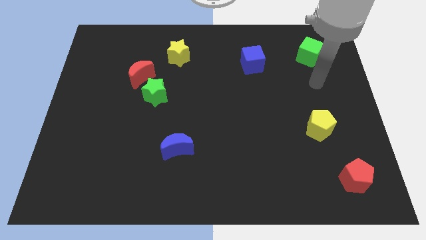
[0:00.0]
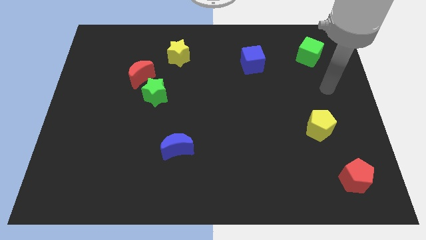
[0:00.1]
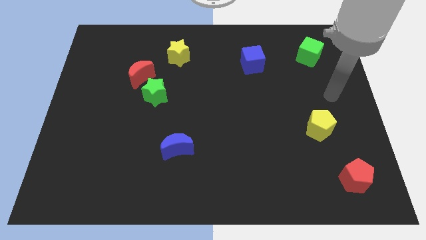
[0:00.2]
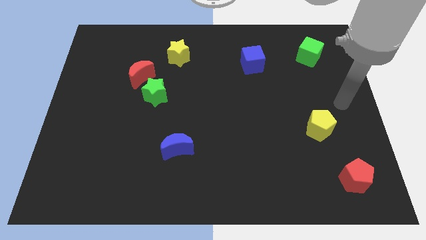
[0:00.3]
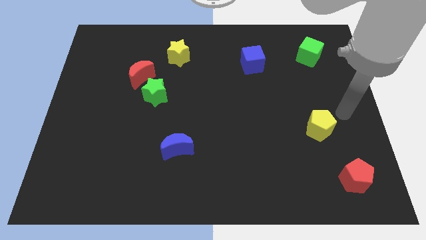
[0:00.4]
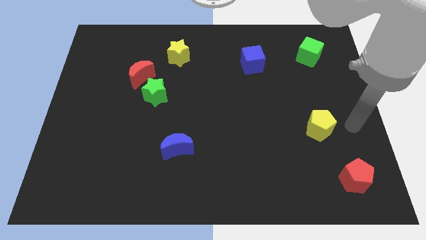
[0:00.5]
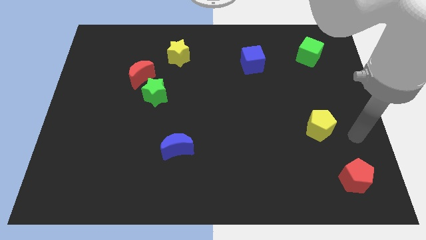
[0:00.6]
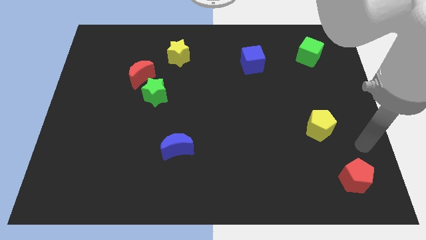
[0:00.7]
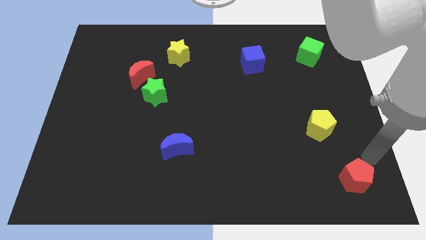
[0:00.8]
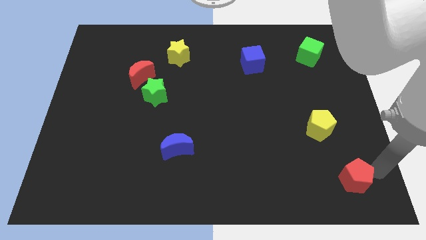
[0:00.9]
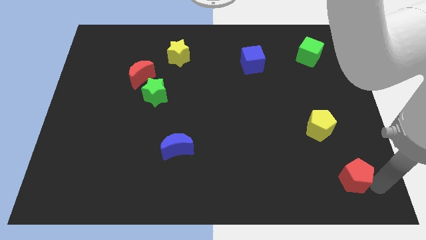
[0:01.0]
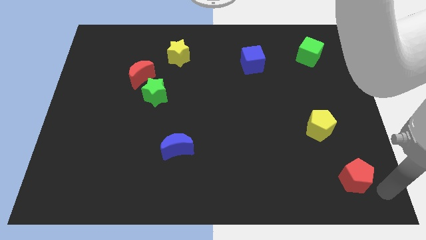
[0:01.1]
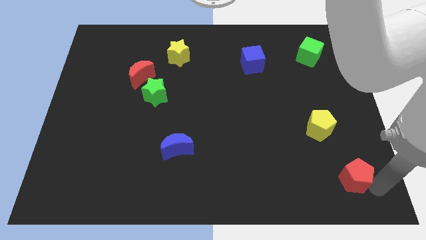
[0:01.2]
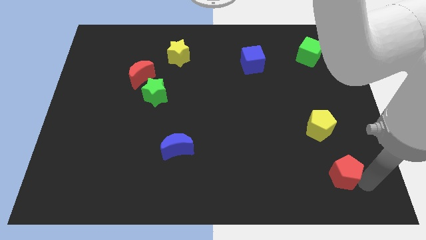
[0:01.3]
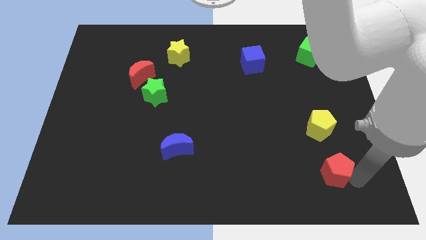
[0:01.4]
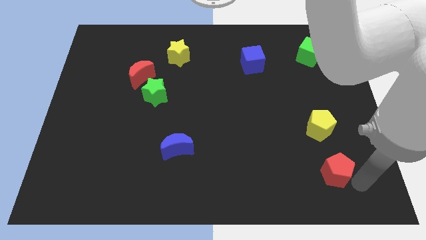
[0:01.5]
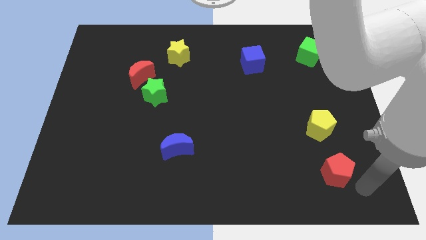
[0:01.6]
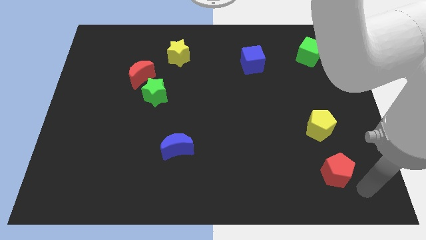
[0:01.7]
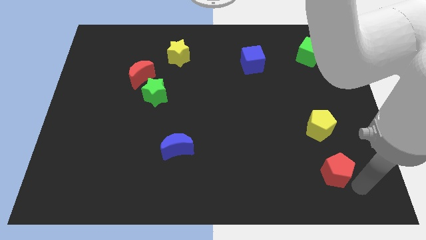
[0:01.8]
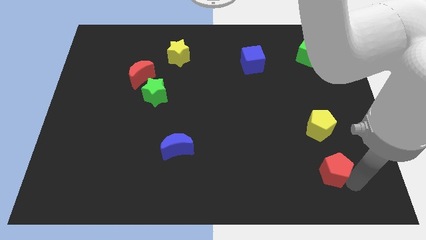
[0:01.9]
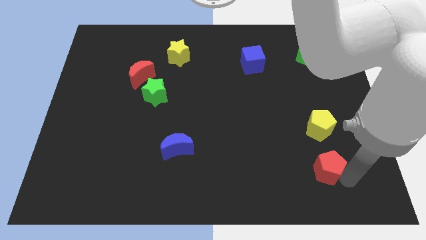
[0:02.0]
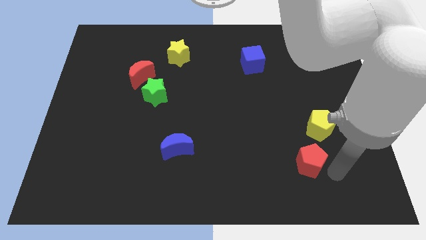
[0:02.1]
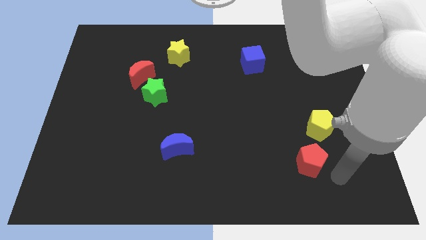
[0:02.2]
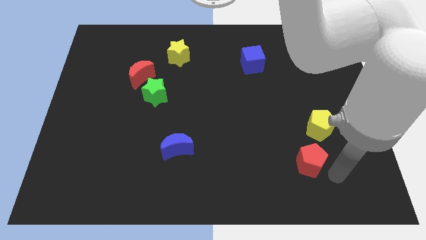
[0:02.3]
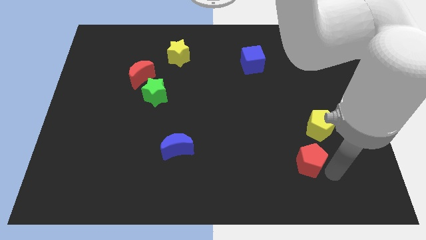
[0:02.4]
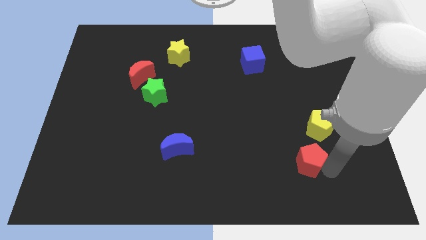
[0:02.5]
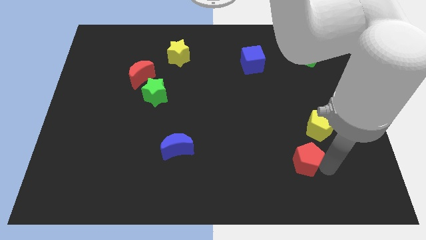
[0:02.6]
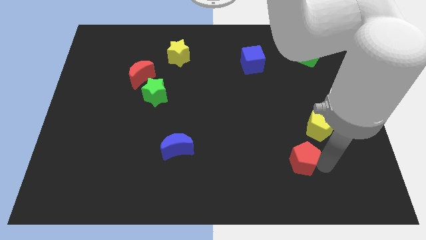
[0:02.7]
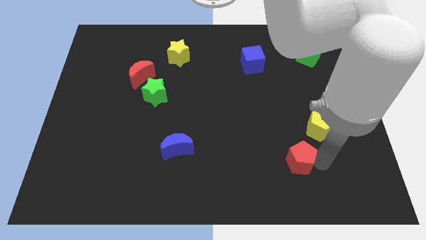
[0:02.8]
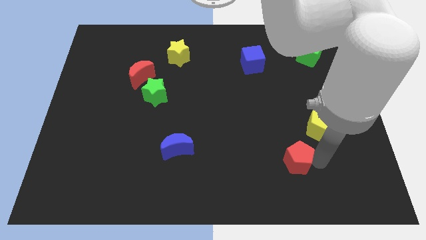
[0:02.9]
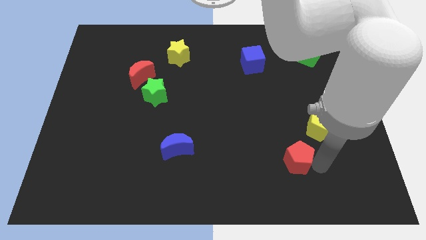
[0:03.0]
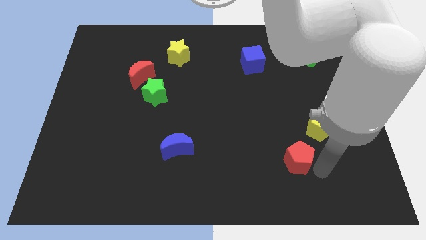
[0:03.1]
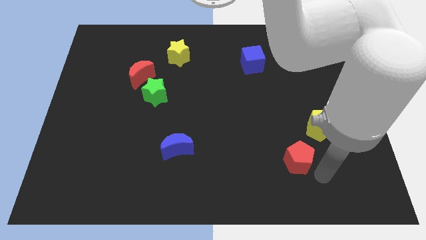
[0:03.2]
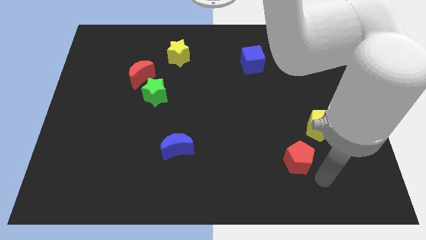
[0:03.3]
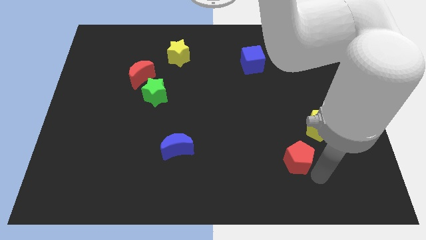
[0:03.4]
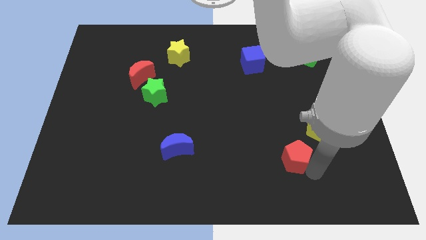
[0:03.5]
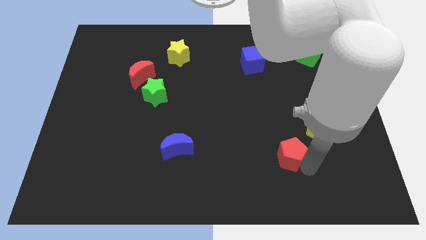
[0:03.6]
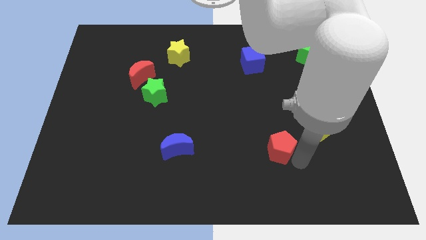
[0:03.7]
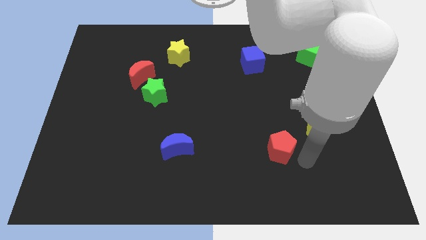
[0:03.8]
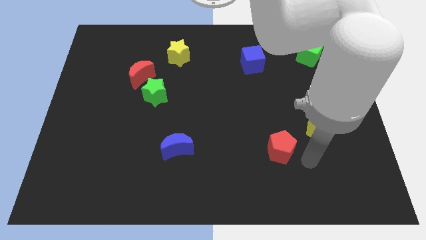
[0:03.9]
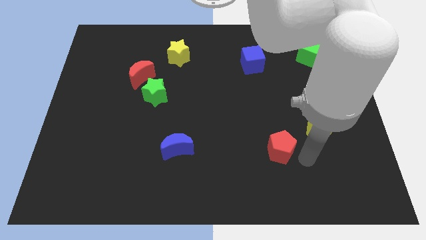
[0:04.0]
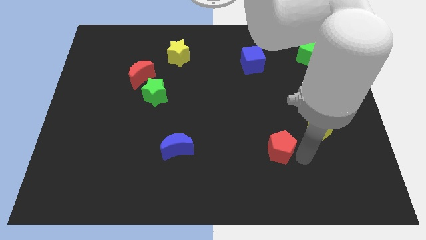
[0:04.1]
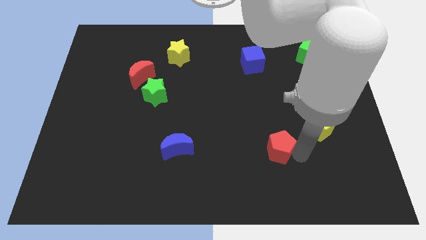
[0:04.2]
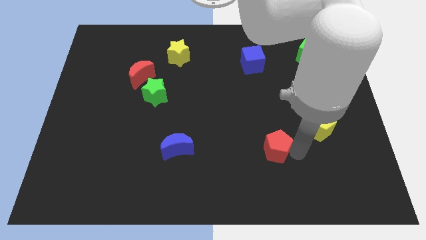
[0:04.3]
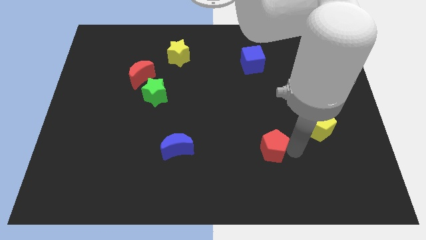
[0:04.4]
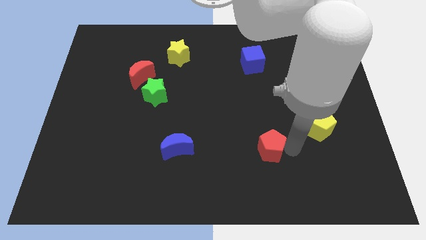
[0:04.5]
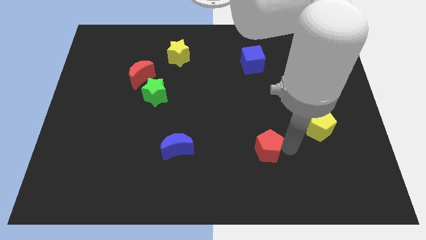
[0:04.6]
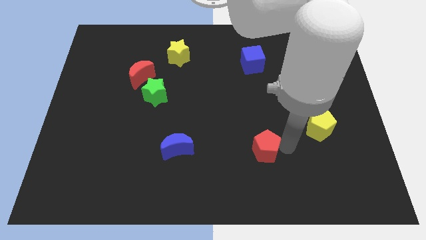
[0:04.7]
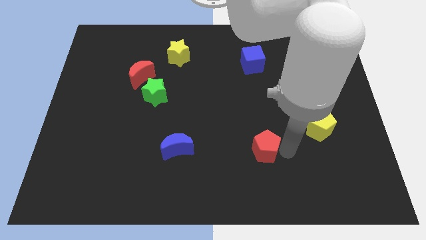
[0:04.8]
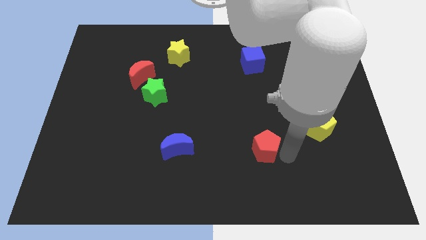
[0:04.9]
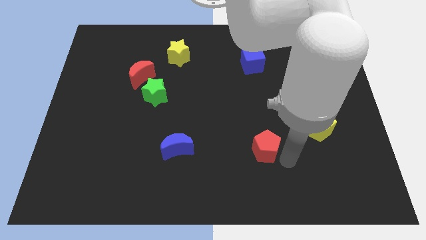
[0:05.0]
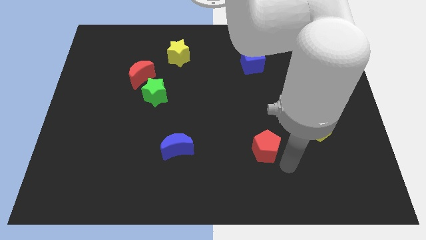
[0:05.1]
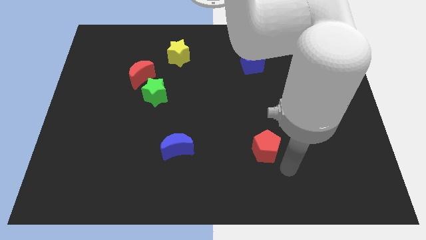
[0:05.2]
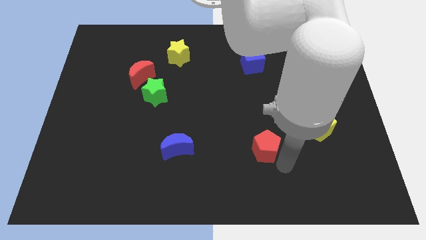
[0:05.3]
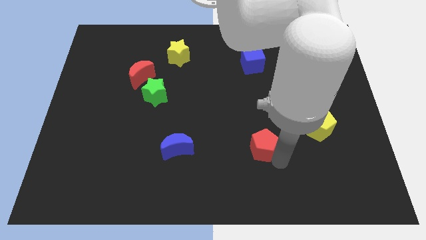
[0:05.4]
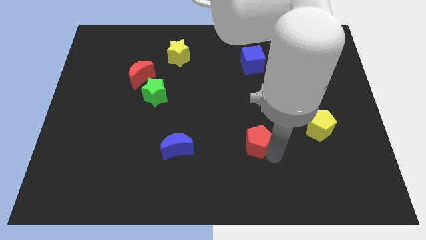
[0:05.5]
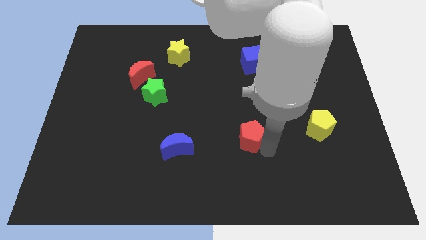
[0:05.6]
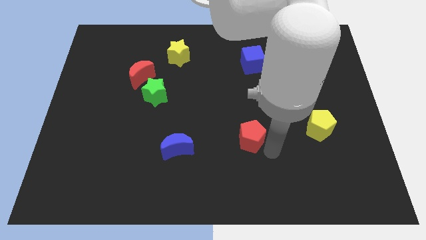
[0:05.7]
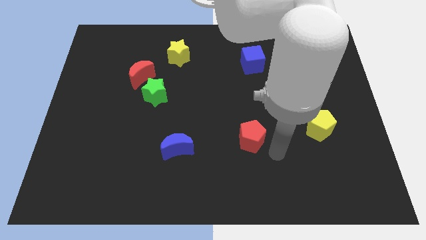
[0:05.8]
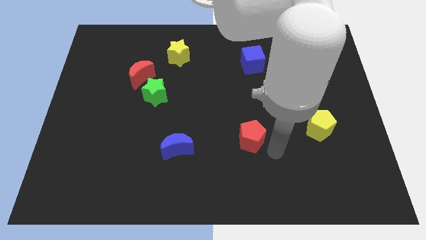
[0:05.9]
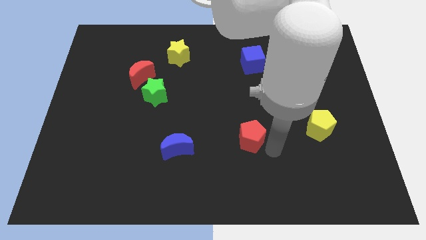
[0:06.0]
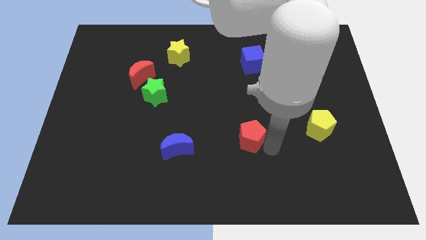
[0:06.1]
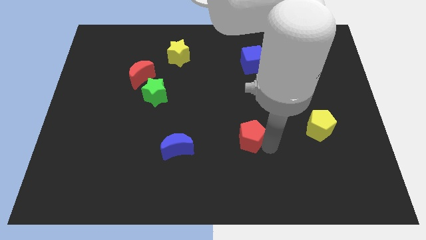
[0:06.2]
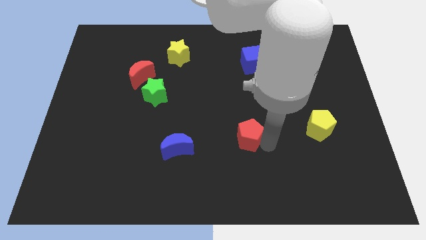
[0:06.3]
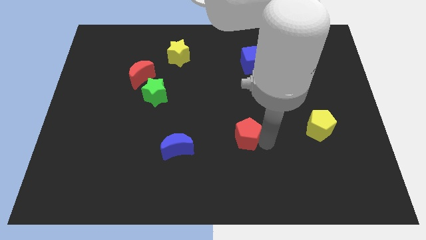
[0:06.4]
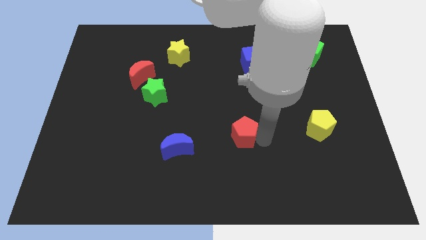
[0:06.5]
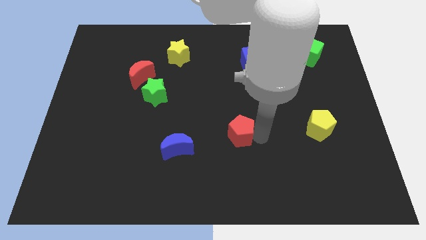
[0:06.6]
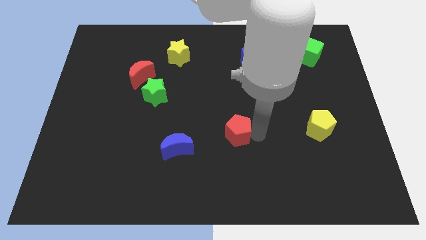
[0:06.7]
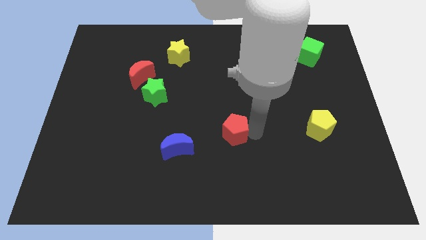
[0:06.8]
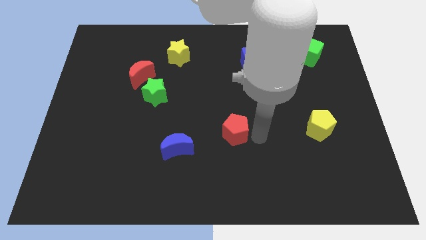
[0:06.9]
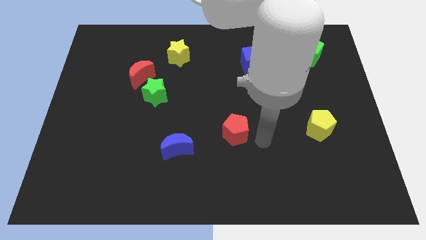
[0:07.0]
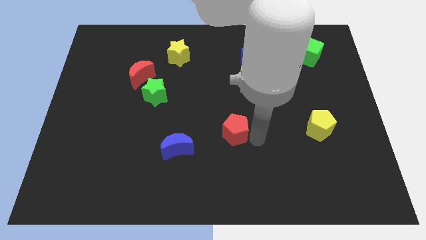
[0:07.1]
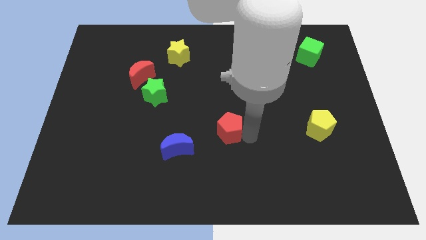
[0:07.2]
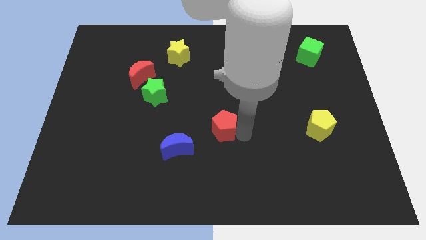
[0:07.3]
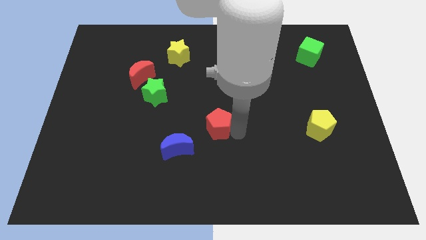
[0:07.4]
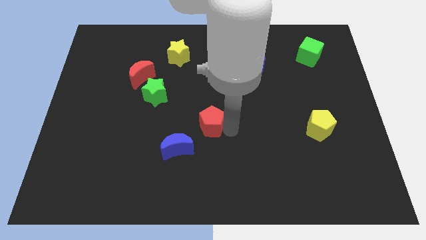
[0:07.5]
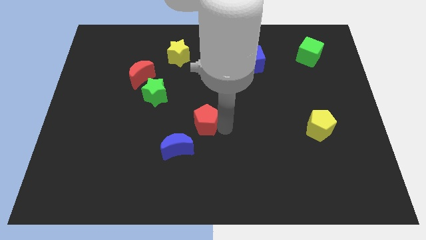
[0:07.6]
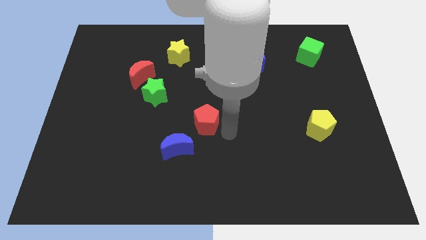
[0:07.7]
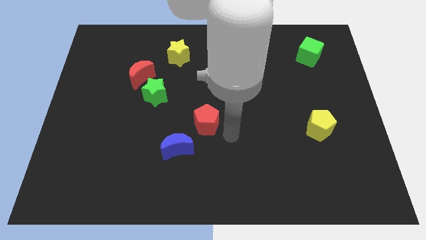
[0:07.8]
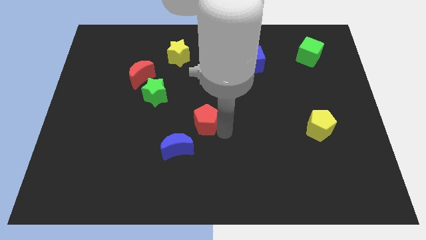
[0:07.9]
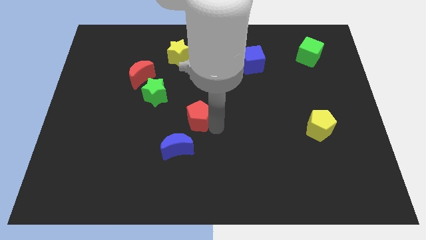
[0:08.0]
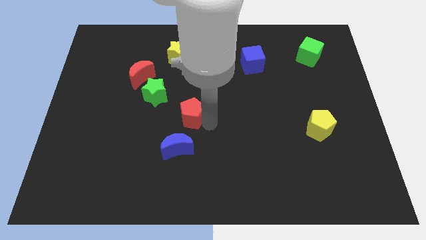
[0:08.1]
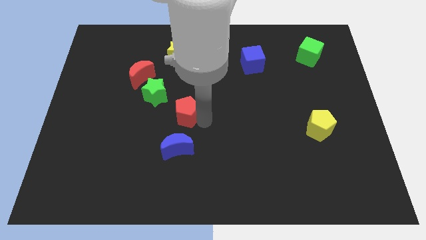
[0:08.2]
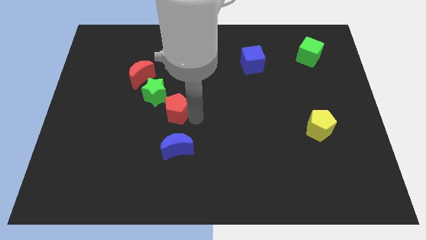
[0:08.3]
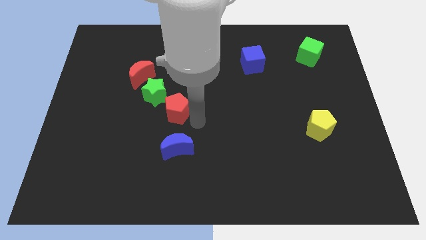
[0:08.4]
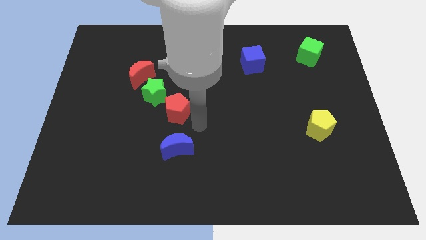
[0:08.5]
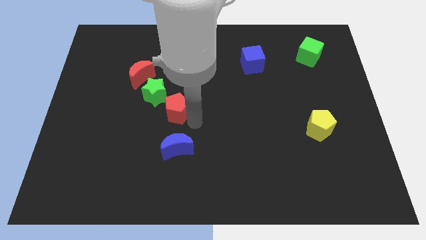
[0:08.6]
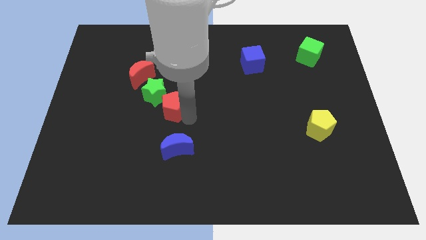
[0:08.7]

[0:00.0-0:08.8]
push the red pentagon next to the green star
